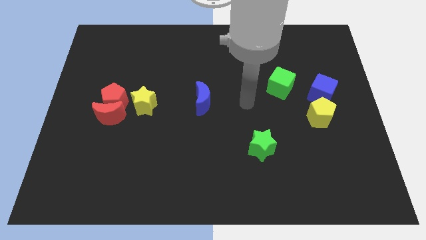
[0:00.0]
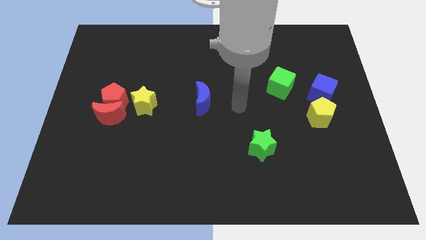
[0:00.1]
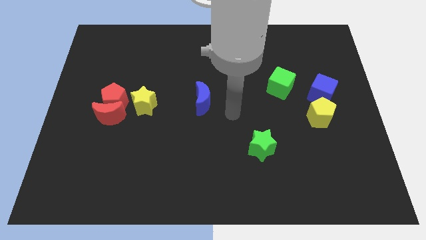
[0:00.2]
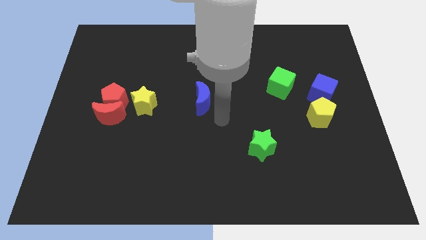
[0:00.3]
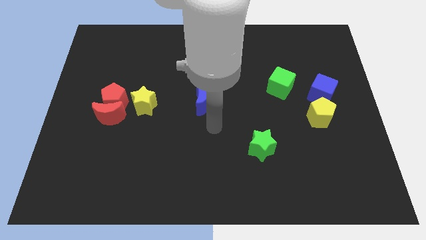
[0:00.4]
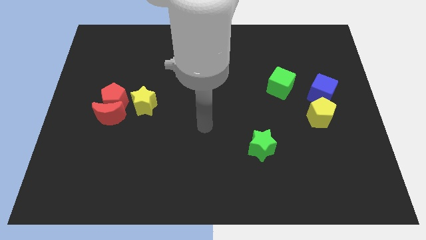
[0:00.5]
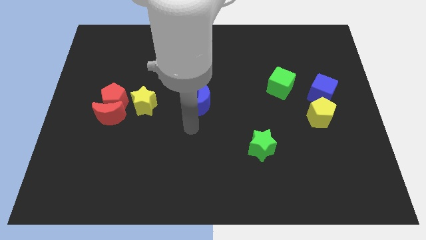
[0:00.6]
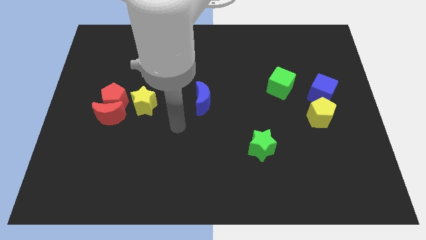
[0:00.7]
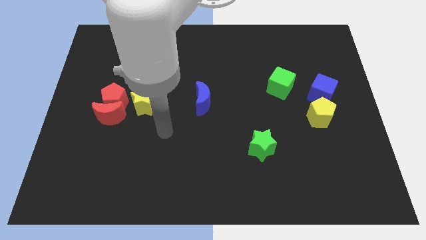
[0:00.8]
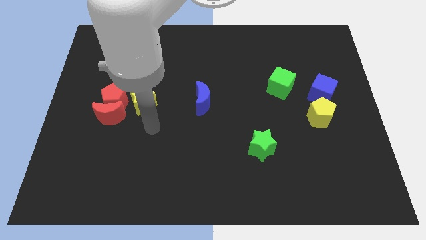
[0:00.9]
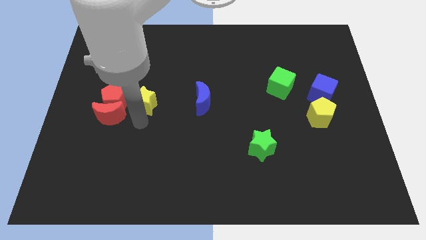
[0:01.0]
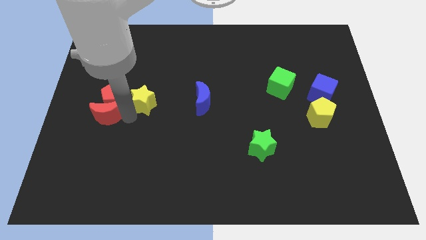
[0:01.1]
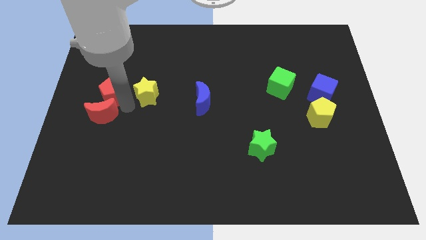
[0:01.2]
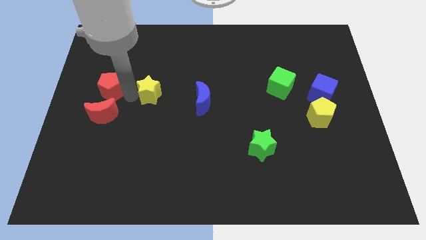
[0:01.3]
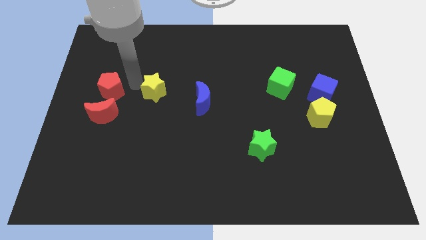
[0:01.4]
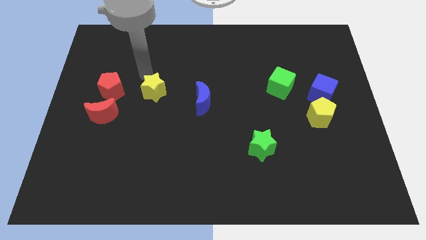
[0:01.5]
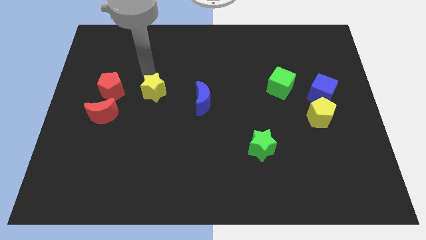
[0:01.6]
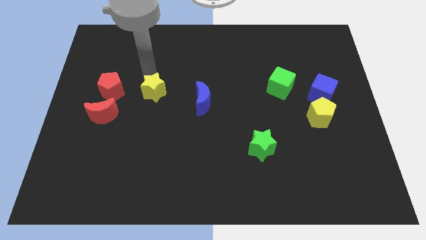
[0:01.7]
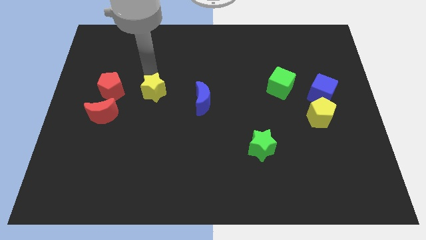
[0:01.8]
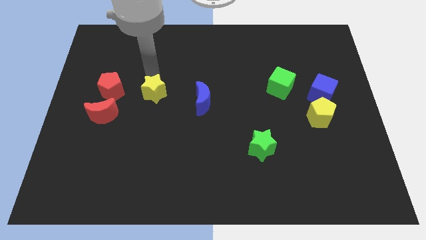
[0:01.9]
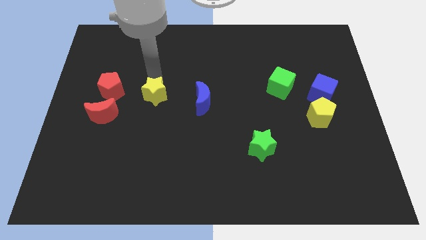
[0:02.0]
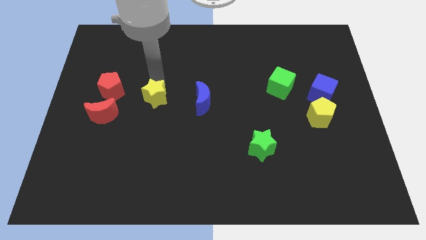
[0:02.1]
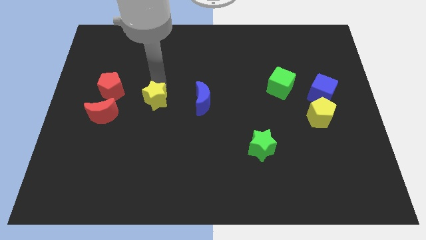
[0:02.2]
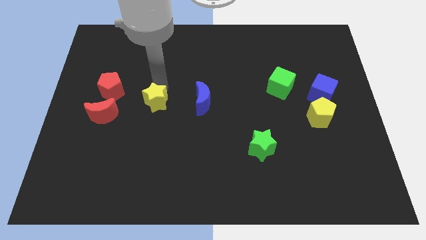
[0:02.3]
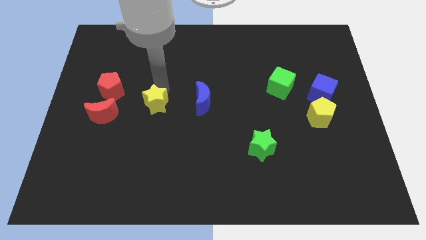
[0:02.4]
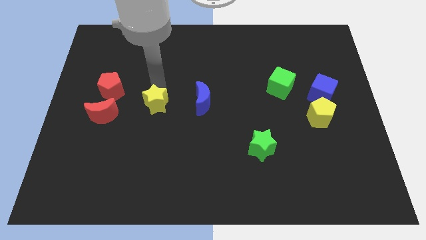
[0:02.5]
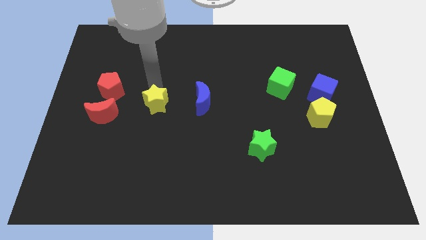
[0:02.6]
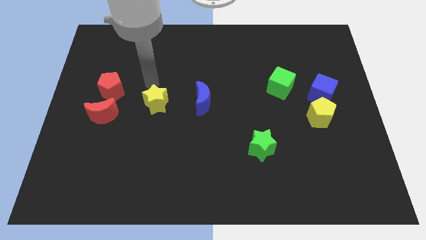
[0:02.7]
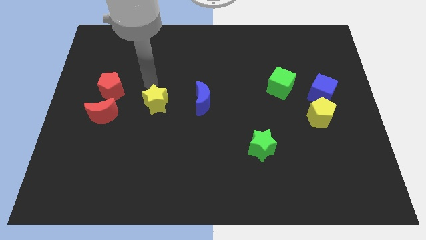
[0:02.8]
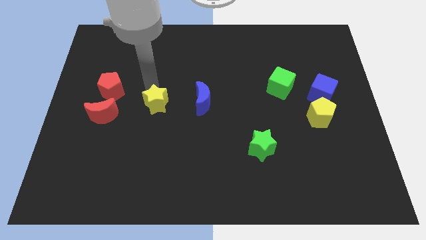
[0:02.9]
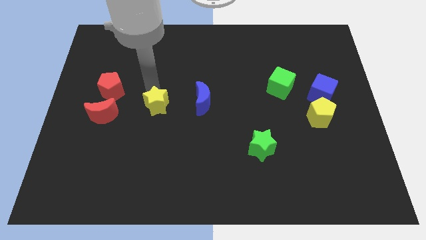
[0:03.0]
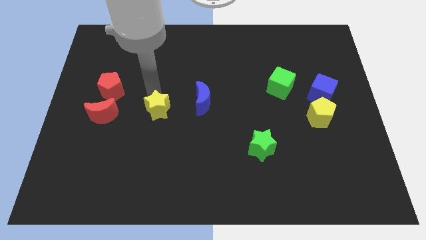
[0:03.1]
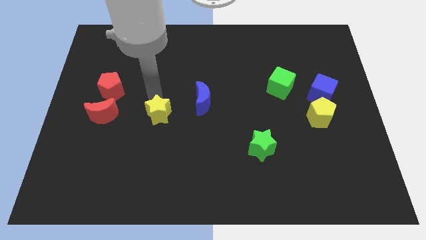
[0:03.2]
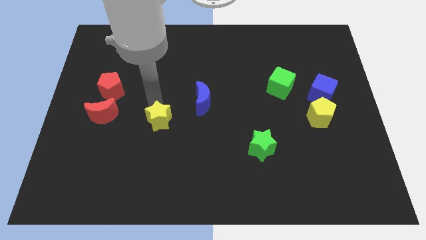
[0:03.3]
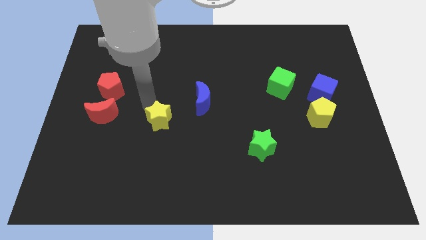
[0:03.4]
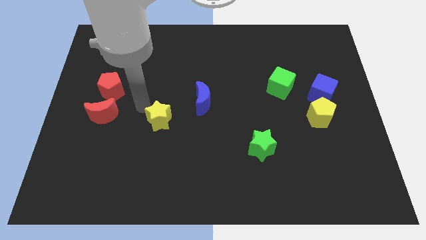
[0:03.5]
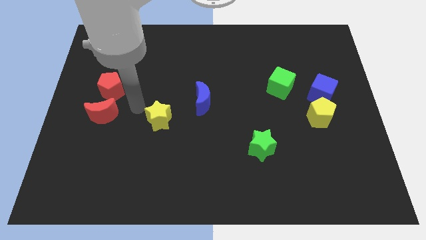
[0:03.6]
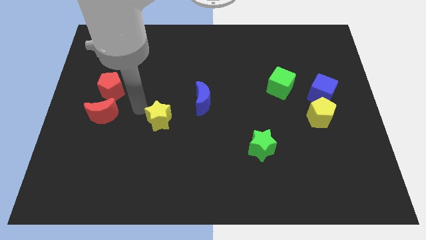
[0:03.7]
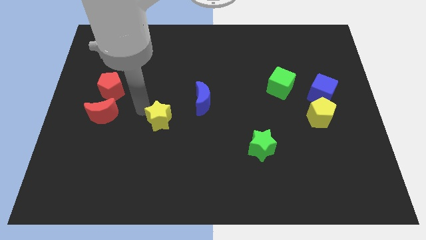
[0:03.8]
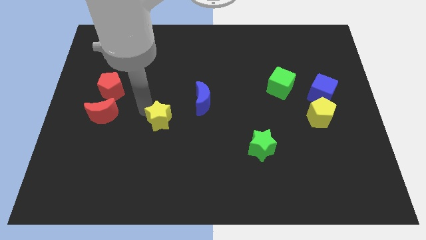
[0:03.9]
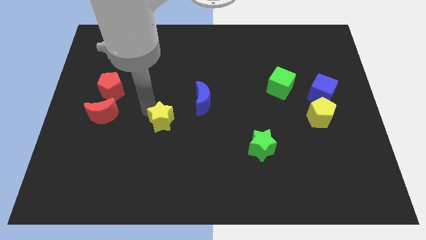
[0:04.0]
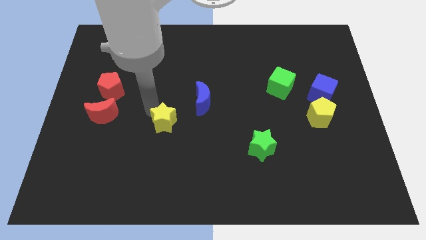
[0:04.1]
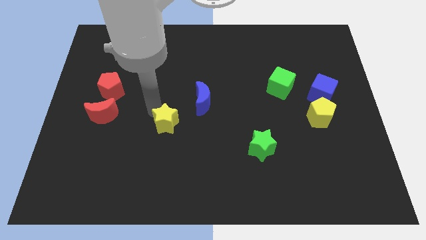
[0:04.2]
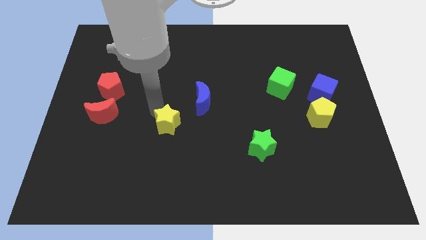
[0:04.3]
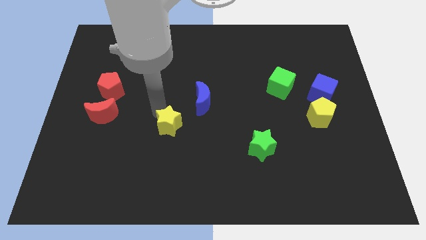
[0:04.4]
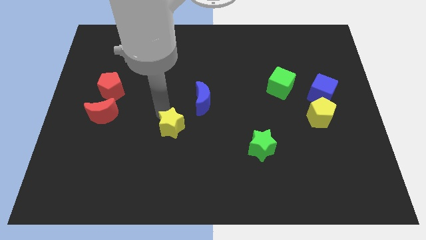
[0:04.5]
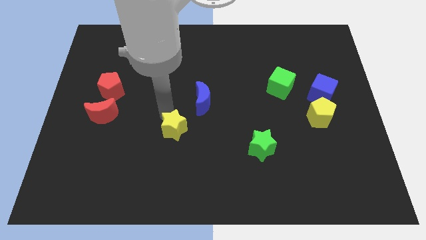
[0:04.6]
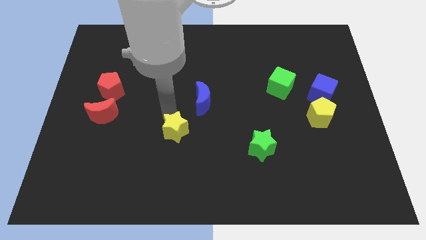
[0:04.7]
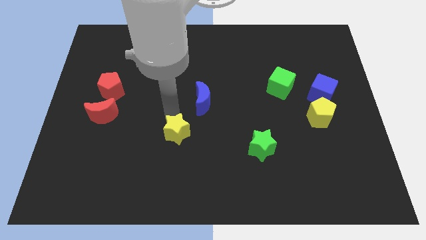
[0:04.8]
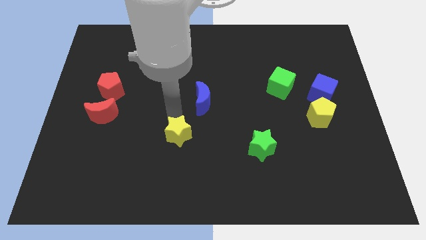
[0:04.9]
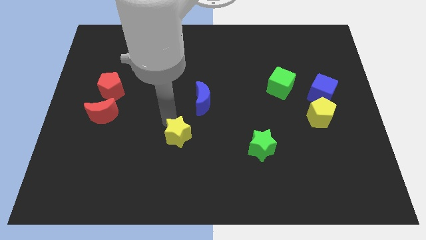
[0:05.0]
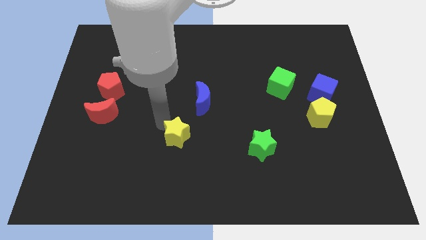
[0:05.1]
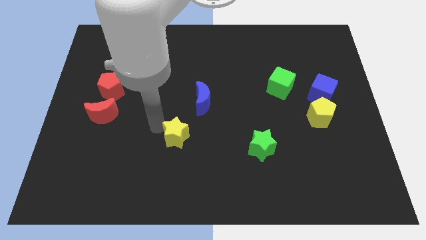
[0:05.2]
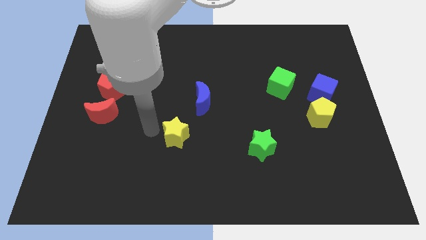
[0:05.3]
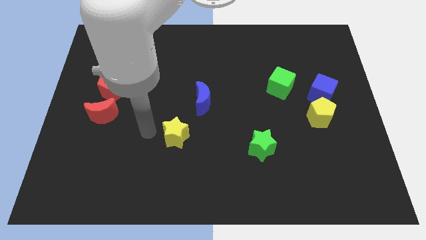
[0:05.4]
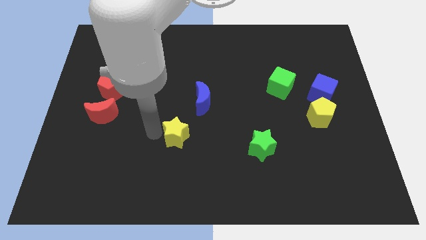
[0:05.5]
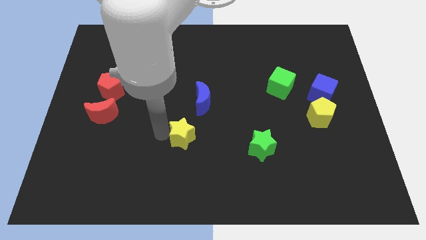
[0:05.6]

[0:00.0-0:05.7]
move the yellow star below the blue moon

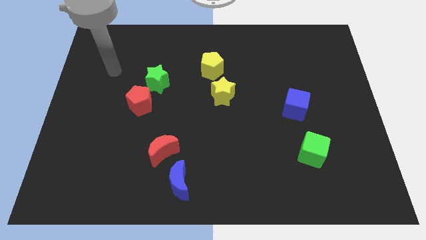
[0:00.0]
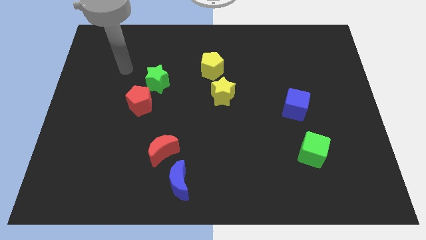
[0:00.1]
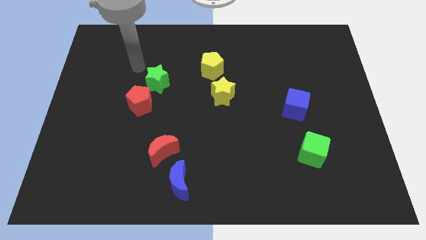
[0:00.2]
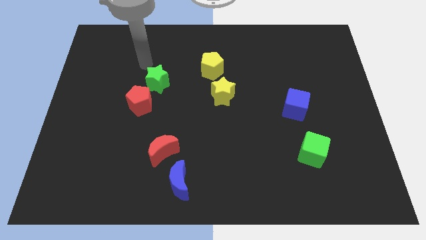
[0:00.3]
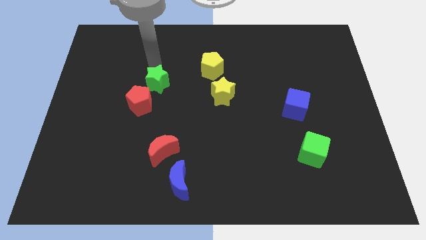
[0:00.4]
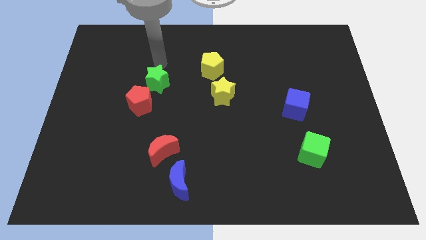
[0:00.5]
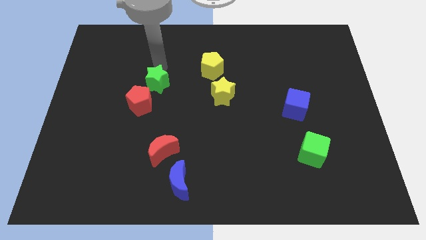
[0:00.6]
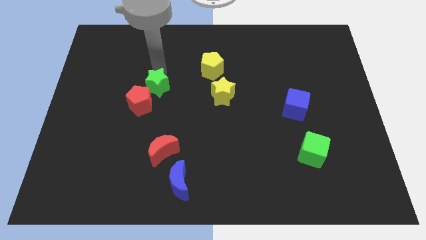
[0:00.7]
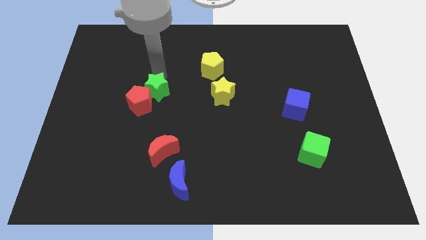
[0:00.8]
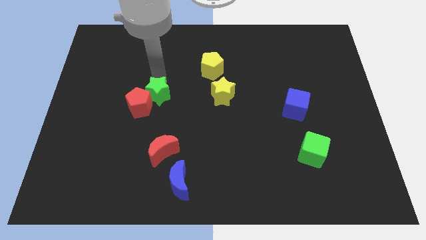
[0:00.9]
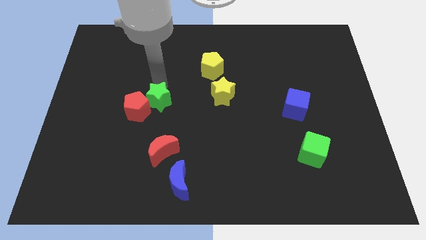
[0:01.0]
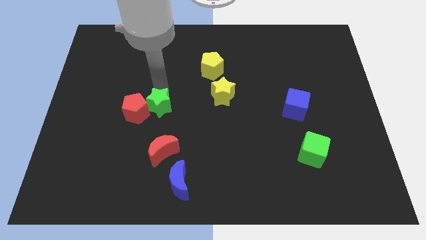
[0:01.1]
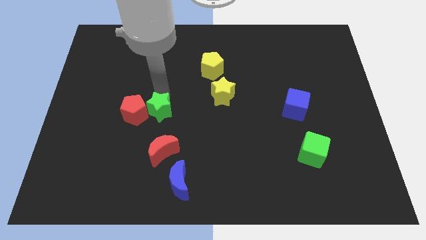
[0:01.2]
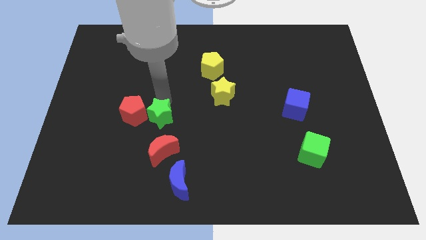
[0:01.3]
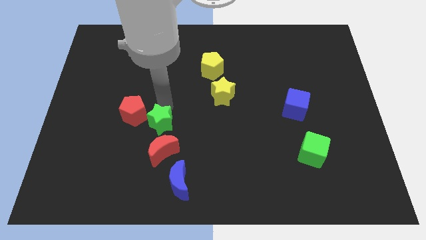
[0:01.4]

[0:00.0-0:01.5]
move the green star to the top left of the red moon
